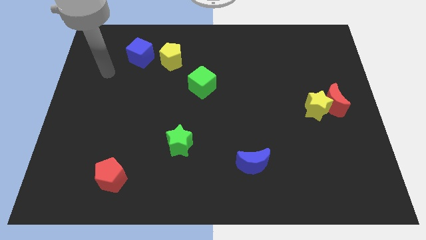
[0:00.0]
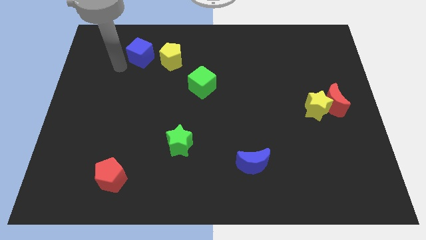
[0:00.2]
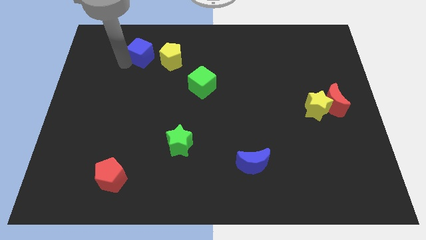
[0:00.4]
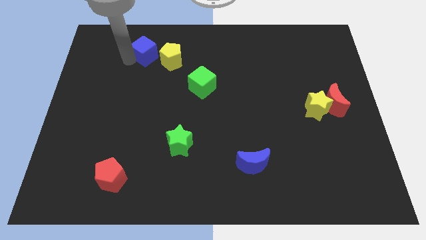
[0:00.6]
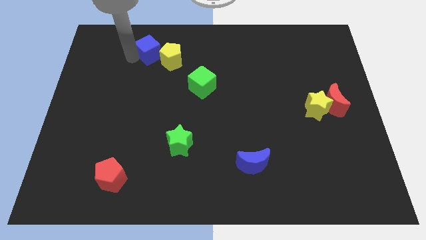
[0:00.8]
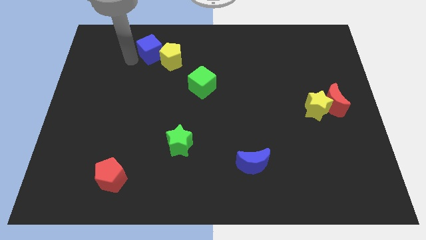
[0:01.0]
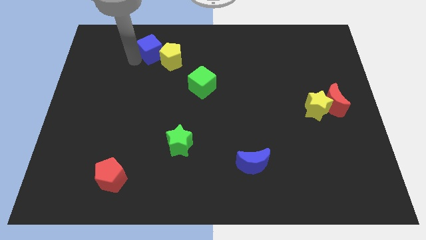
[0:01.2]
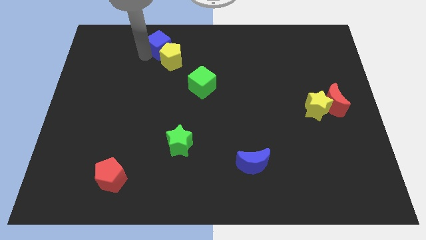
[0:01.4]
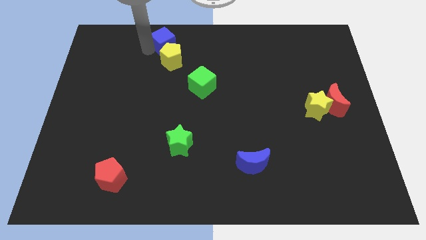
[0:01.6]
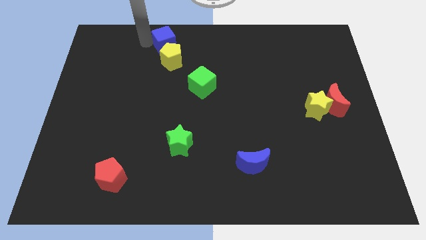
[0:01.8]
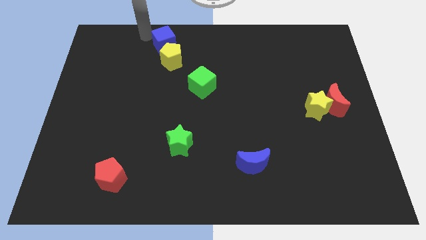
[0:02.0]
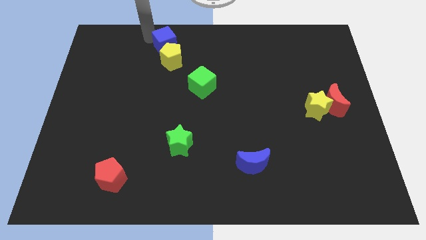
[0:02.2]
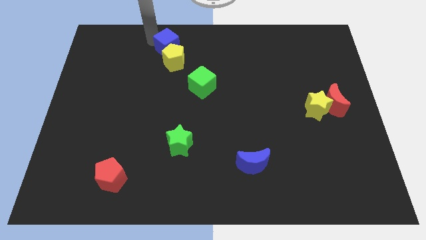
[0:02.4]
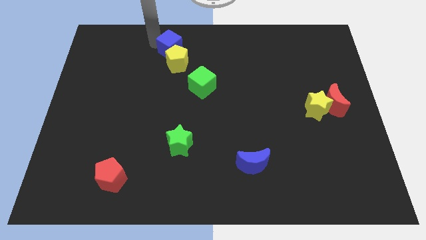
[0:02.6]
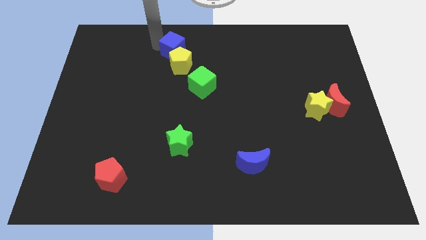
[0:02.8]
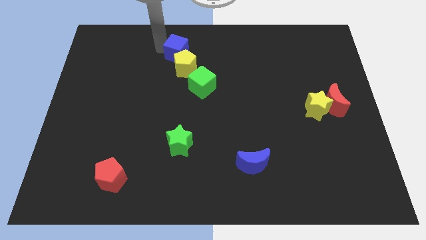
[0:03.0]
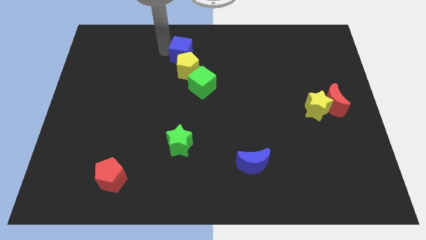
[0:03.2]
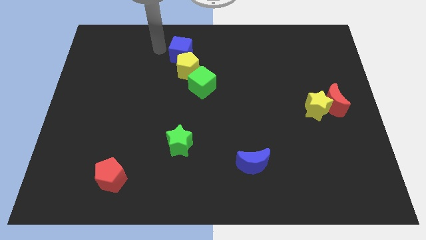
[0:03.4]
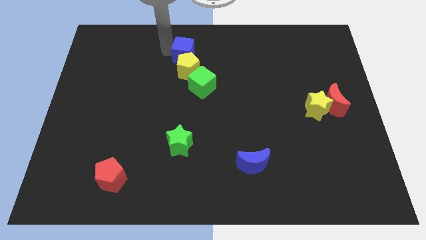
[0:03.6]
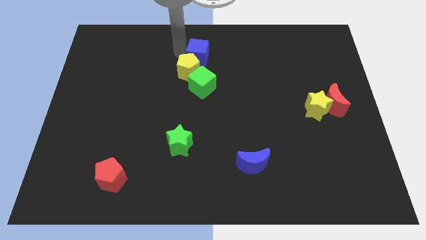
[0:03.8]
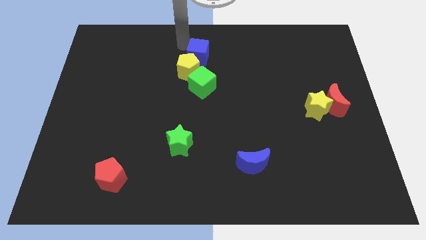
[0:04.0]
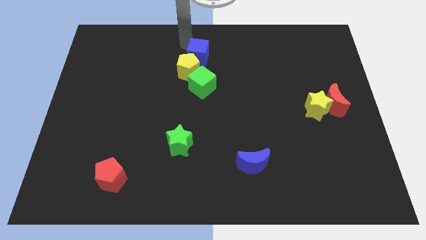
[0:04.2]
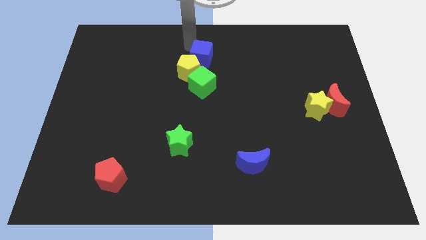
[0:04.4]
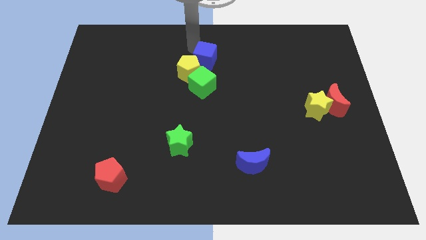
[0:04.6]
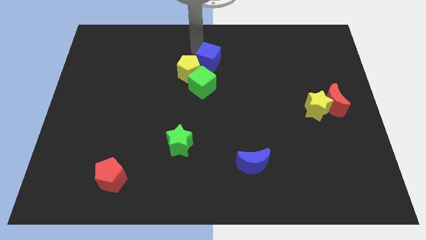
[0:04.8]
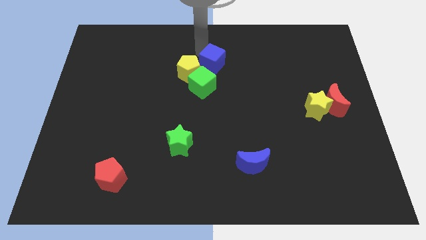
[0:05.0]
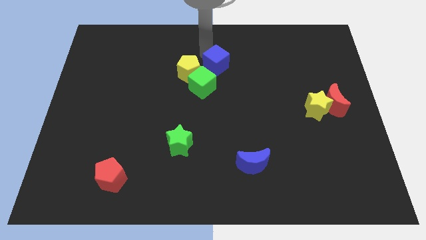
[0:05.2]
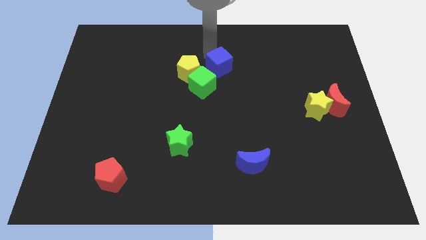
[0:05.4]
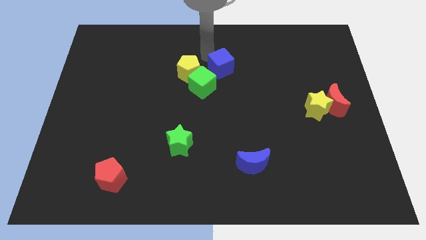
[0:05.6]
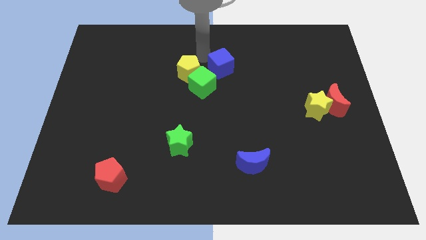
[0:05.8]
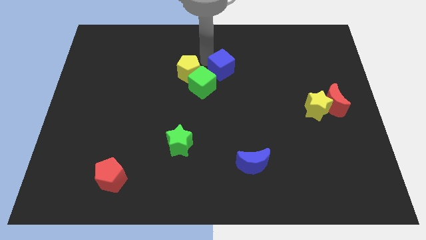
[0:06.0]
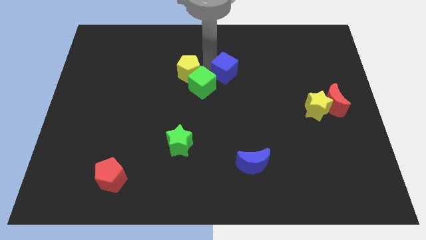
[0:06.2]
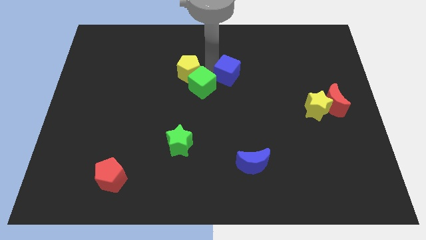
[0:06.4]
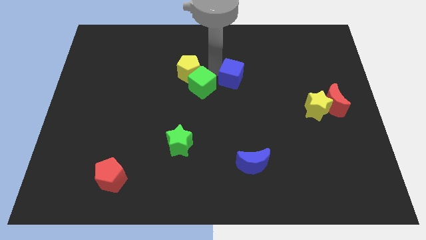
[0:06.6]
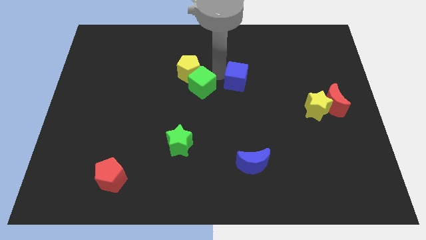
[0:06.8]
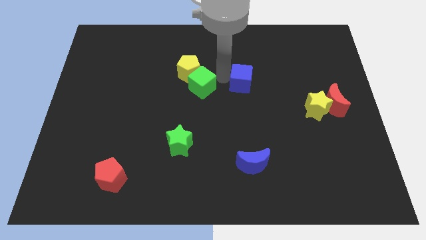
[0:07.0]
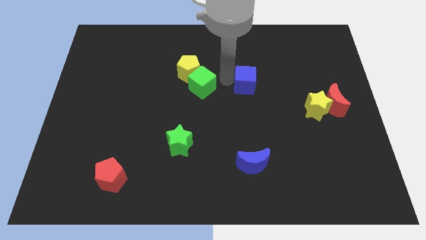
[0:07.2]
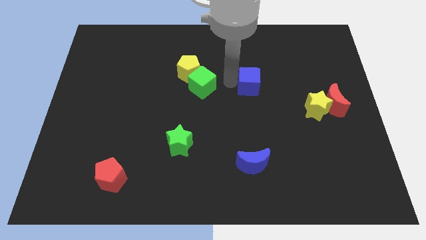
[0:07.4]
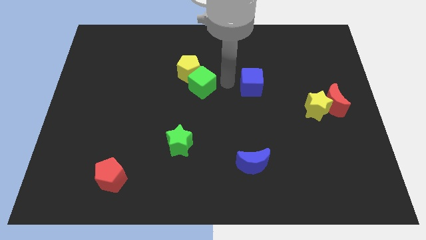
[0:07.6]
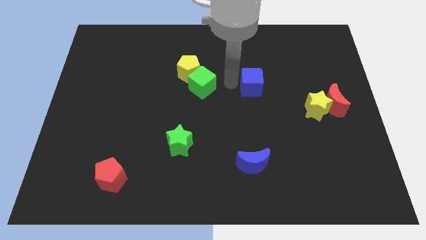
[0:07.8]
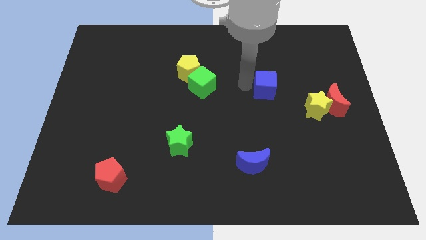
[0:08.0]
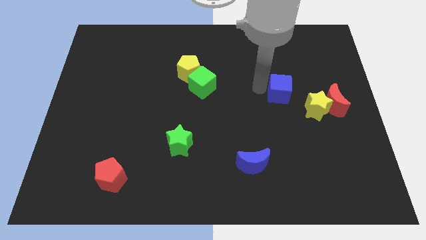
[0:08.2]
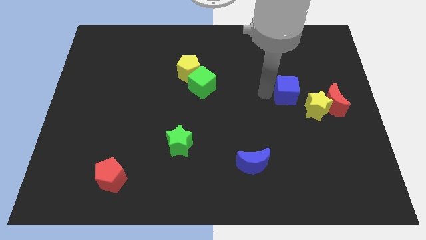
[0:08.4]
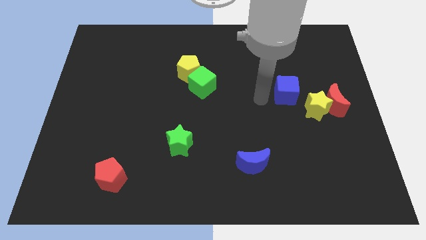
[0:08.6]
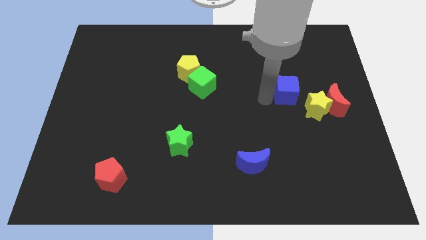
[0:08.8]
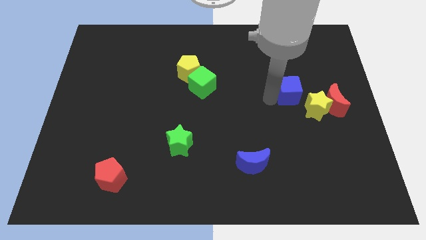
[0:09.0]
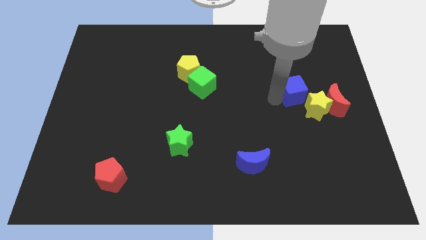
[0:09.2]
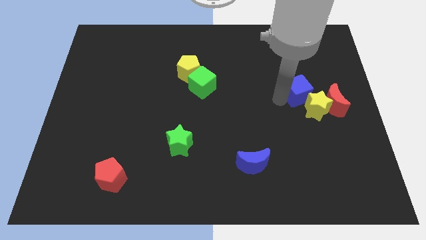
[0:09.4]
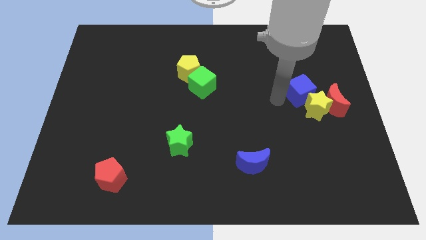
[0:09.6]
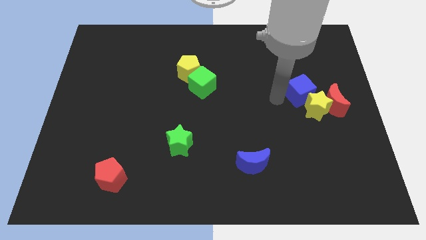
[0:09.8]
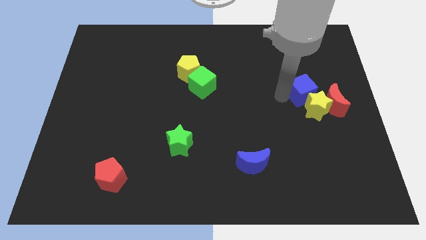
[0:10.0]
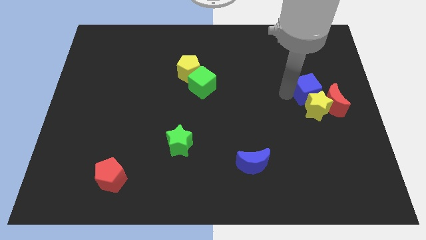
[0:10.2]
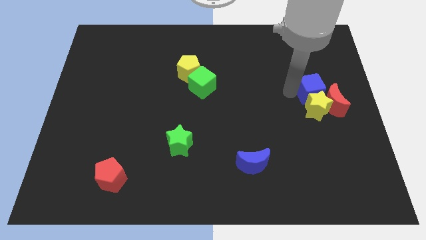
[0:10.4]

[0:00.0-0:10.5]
move the blue cube to the red moon

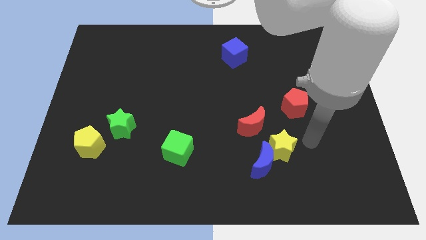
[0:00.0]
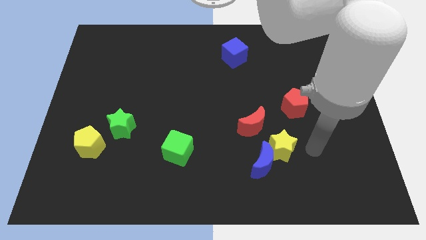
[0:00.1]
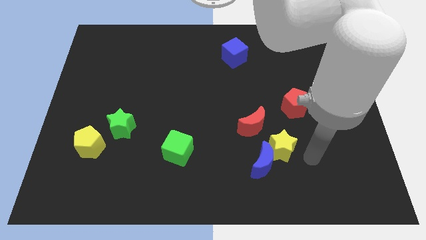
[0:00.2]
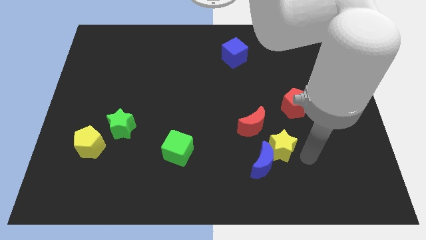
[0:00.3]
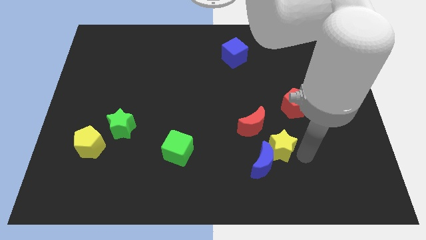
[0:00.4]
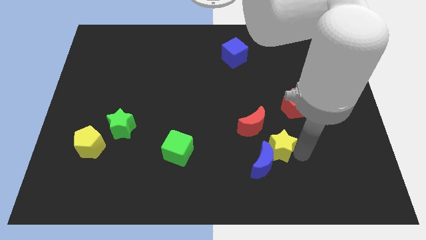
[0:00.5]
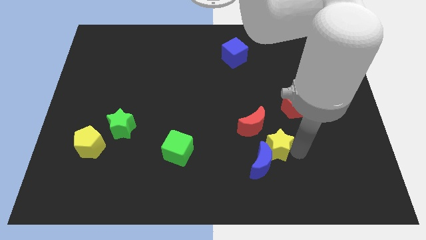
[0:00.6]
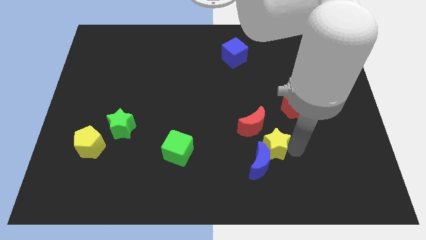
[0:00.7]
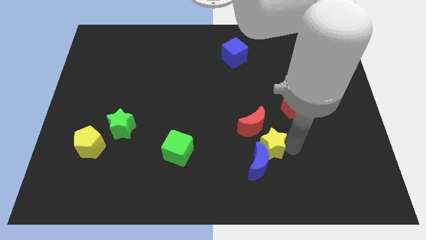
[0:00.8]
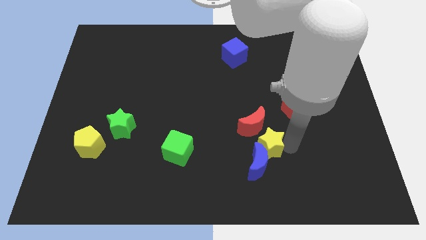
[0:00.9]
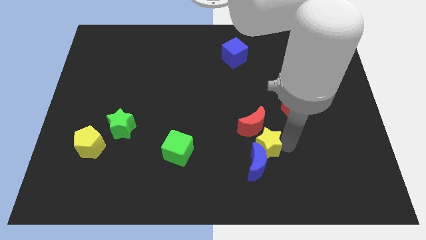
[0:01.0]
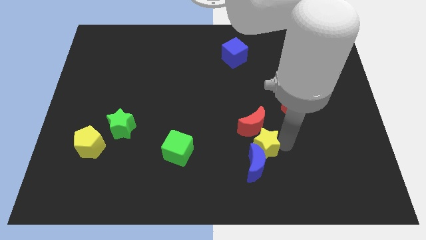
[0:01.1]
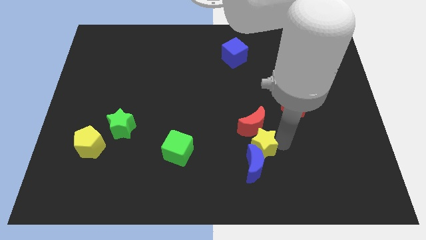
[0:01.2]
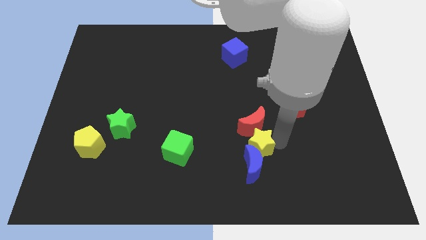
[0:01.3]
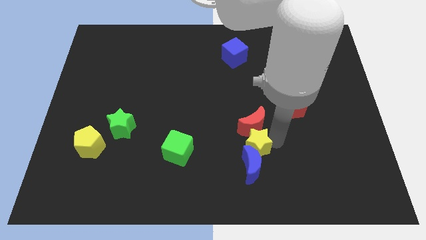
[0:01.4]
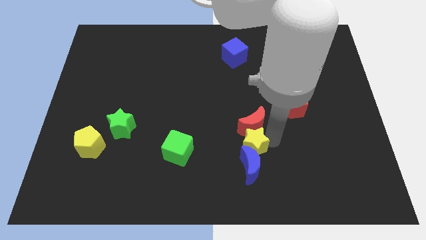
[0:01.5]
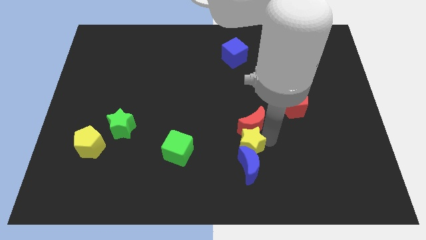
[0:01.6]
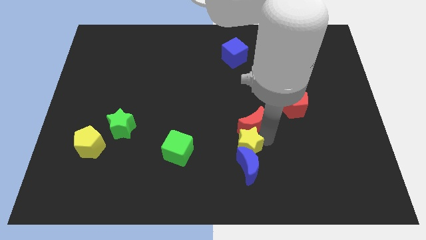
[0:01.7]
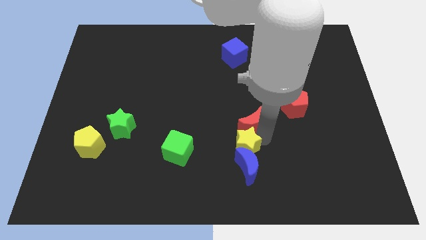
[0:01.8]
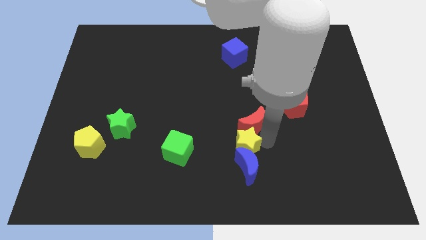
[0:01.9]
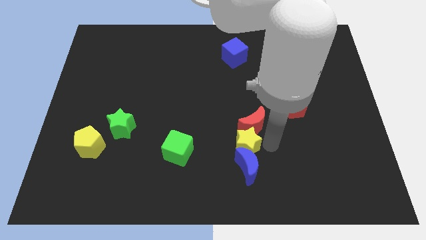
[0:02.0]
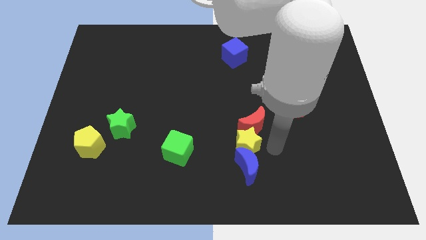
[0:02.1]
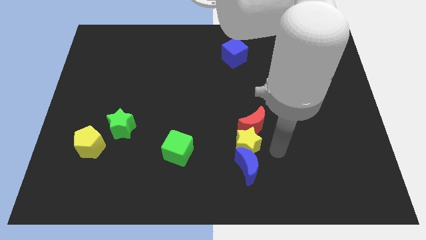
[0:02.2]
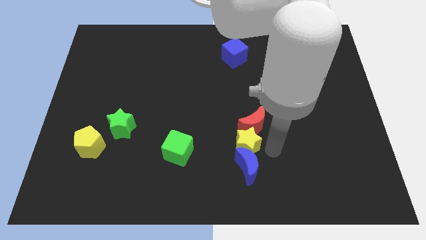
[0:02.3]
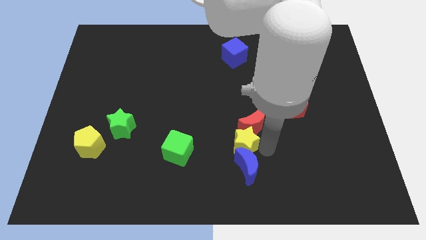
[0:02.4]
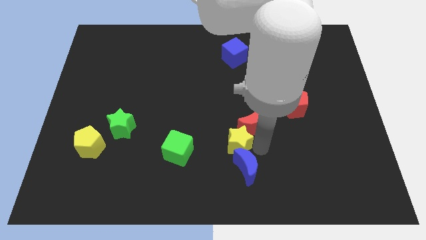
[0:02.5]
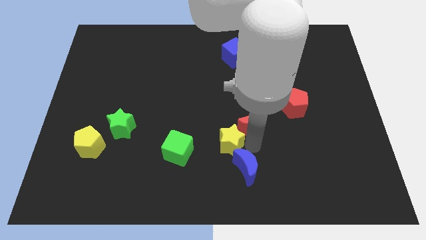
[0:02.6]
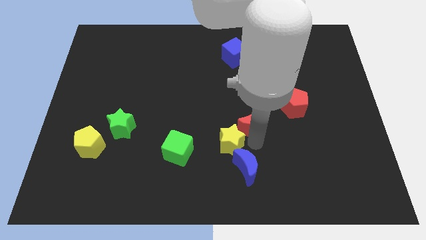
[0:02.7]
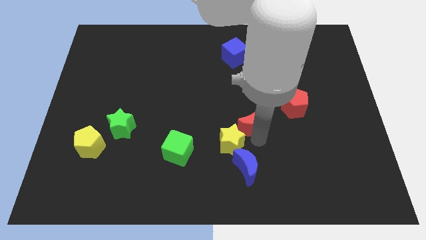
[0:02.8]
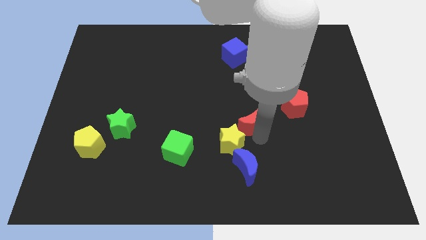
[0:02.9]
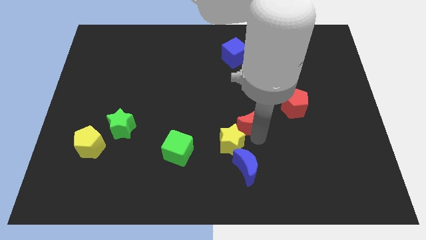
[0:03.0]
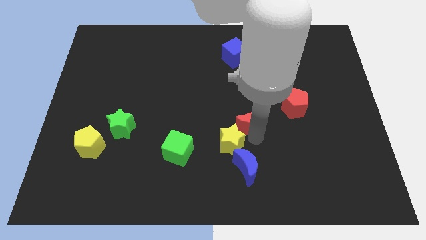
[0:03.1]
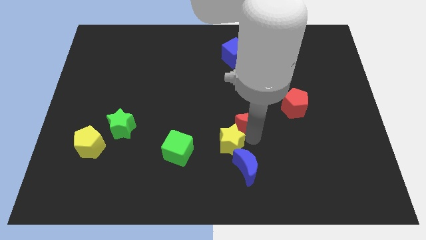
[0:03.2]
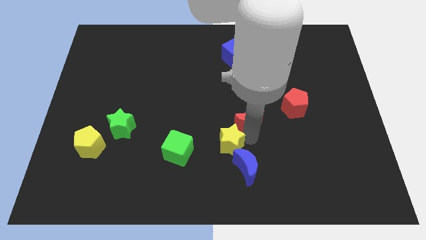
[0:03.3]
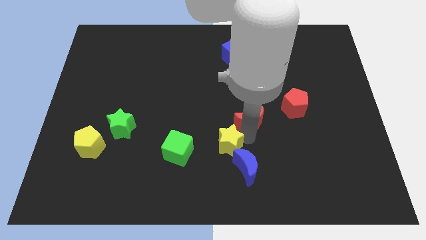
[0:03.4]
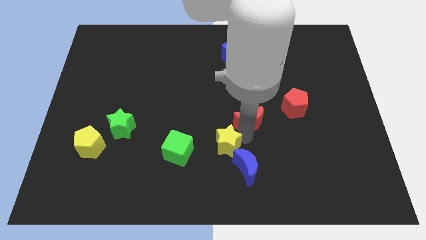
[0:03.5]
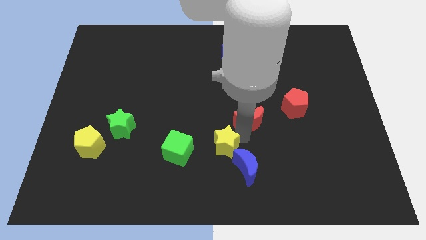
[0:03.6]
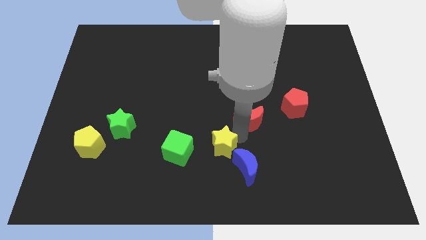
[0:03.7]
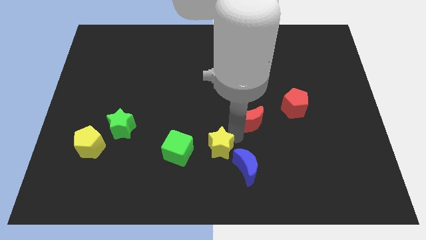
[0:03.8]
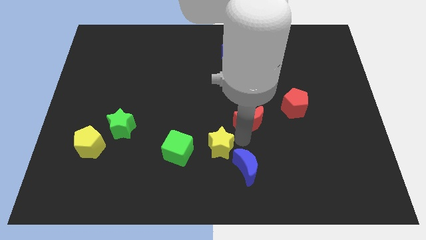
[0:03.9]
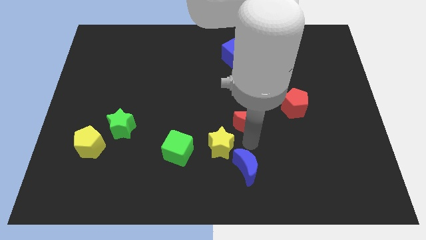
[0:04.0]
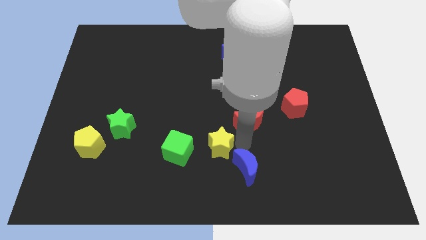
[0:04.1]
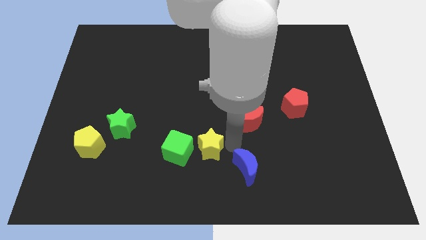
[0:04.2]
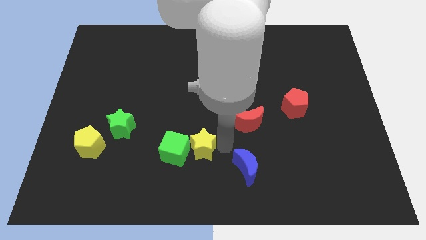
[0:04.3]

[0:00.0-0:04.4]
put the yellow star to the green cube
